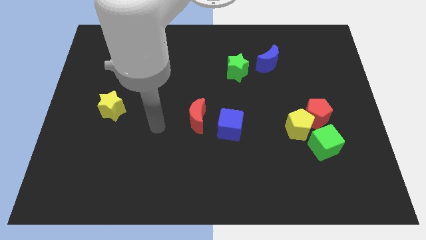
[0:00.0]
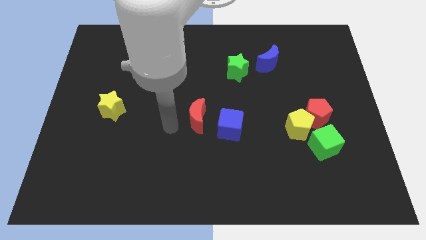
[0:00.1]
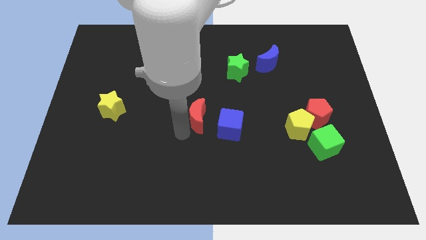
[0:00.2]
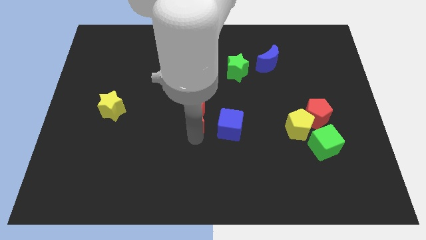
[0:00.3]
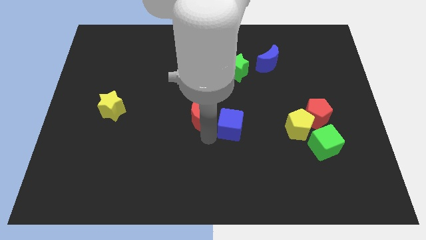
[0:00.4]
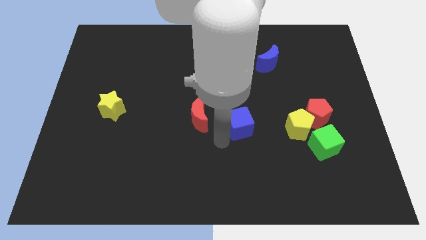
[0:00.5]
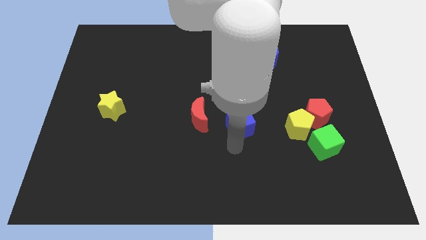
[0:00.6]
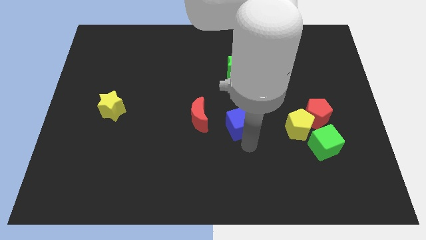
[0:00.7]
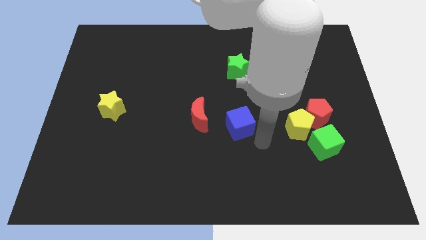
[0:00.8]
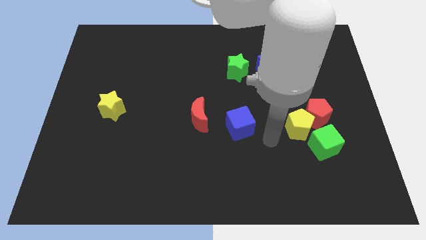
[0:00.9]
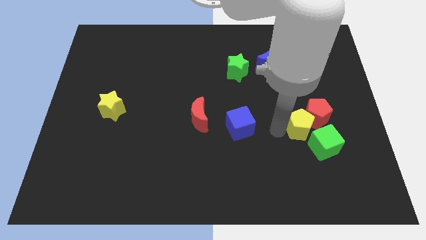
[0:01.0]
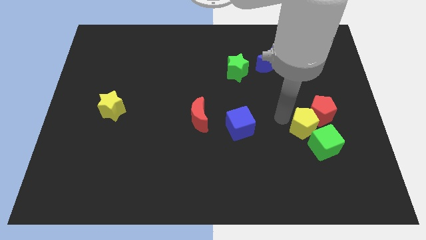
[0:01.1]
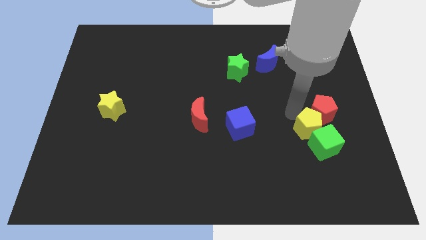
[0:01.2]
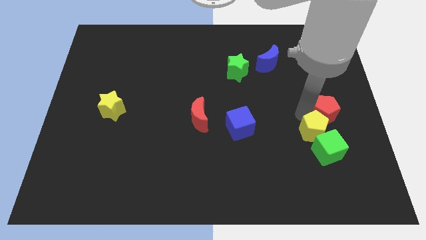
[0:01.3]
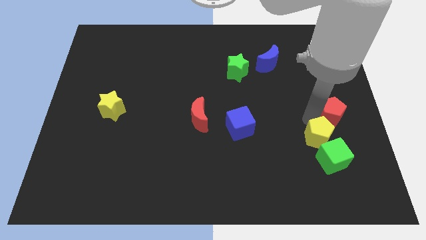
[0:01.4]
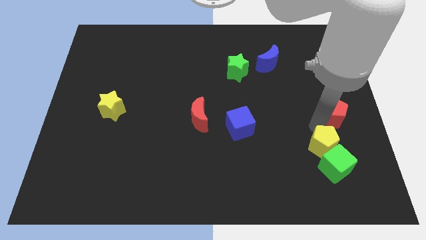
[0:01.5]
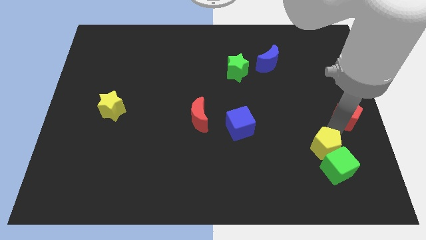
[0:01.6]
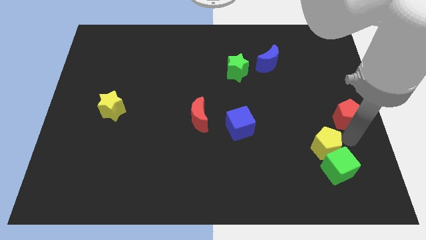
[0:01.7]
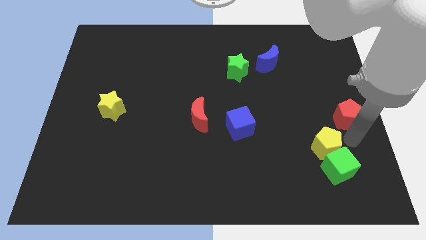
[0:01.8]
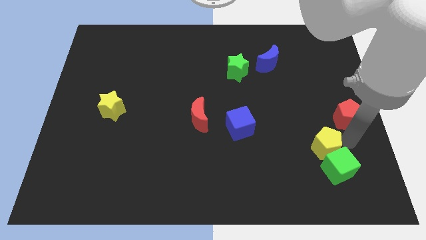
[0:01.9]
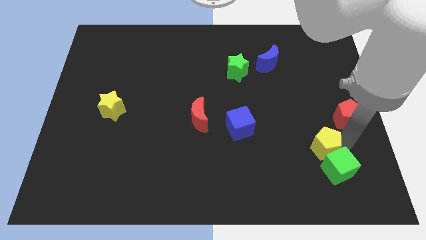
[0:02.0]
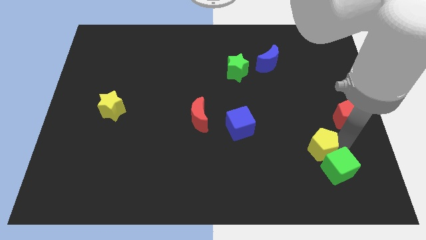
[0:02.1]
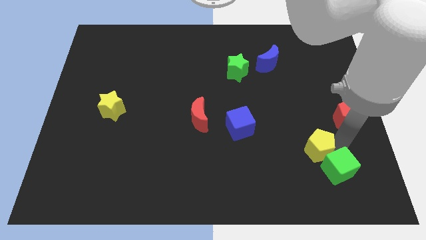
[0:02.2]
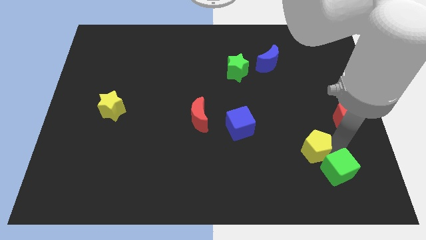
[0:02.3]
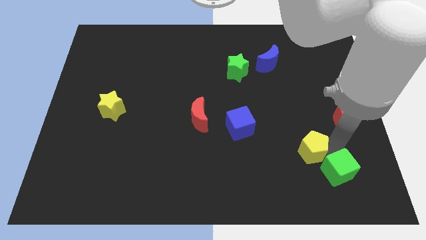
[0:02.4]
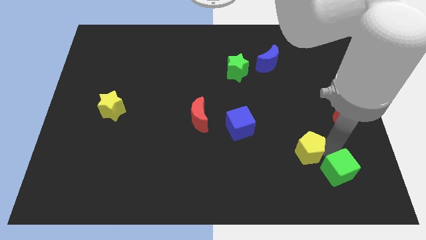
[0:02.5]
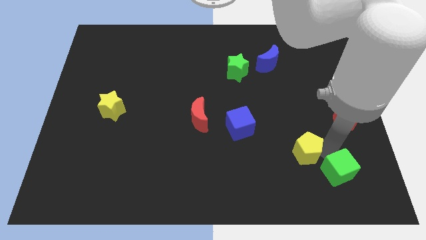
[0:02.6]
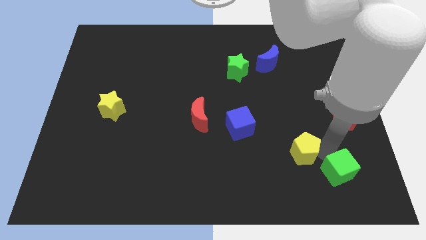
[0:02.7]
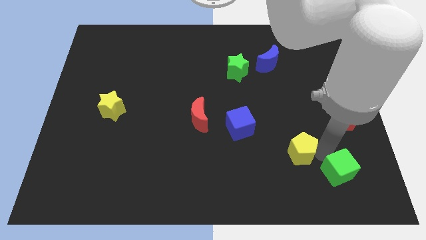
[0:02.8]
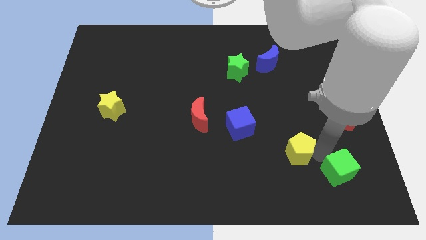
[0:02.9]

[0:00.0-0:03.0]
separate the yellow pentagon from the red pentagon and green cube

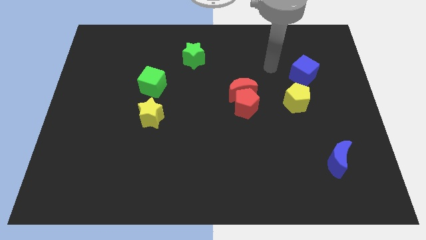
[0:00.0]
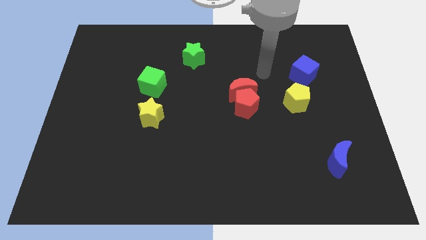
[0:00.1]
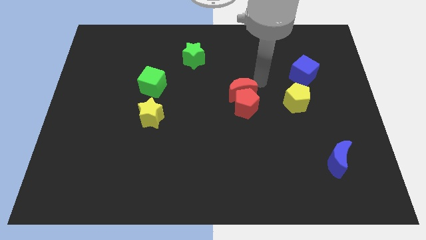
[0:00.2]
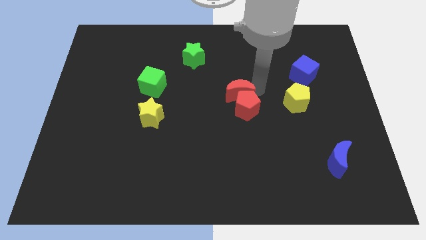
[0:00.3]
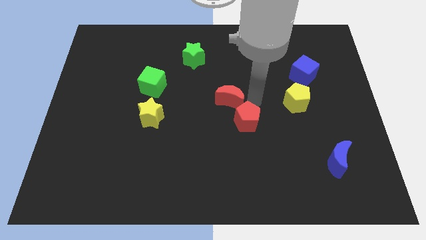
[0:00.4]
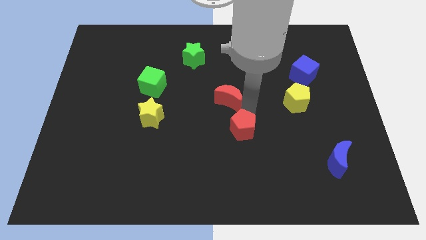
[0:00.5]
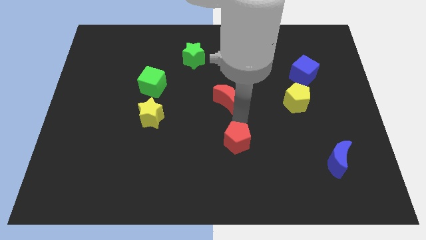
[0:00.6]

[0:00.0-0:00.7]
separate the red moon from the red pentagon

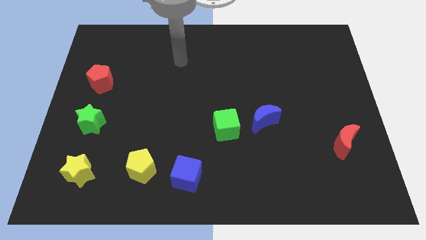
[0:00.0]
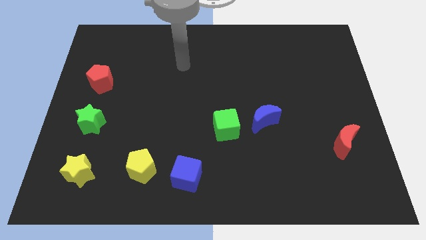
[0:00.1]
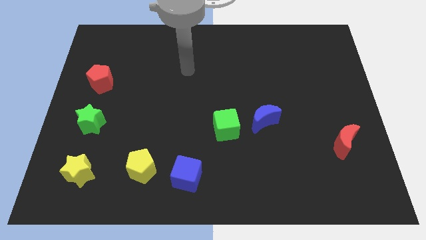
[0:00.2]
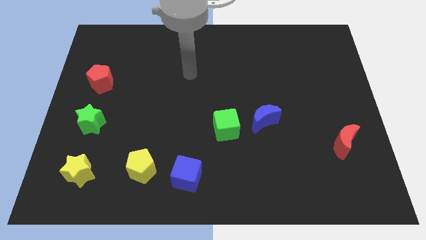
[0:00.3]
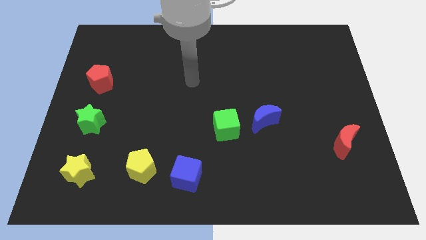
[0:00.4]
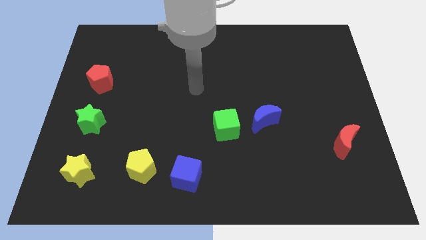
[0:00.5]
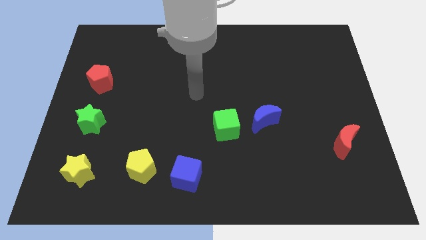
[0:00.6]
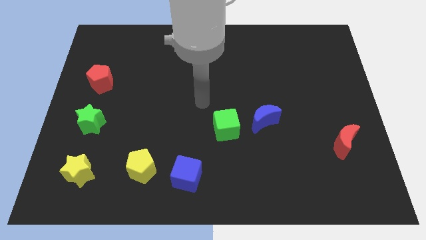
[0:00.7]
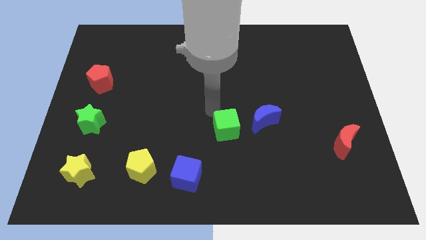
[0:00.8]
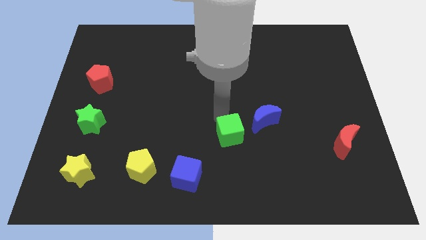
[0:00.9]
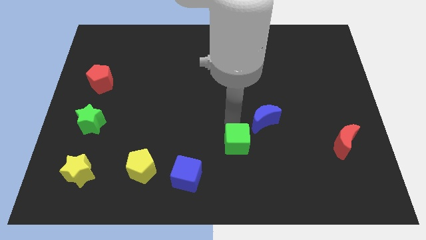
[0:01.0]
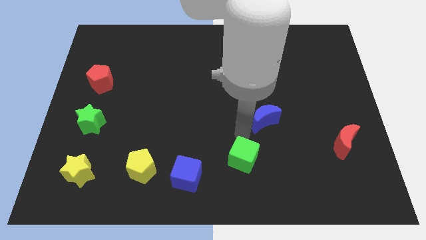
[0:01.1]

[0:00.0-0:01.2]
separate the blue moon from the green cube

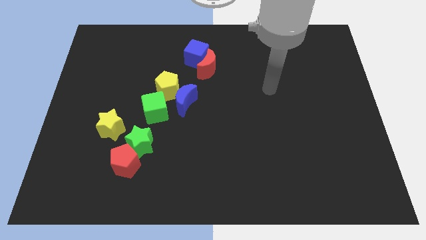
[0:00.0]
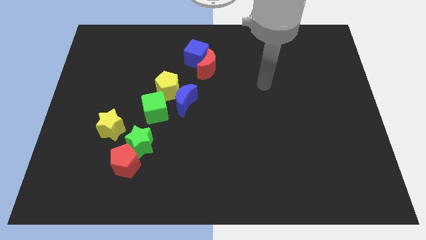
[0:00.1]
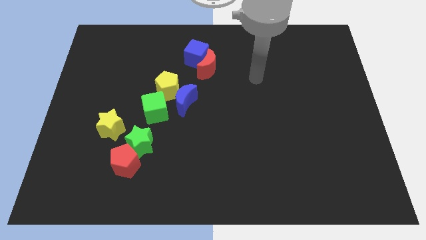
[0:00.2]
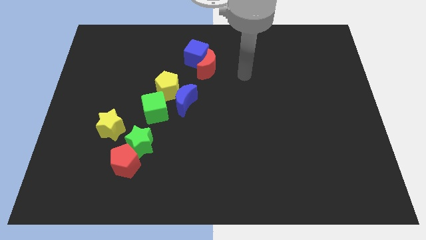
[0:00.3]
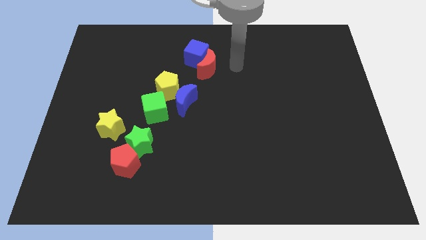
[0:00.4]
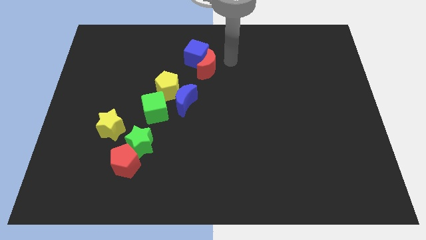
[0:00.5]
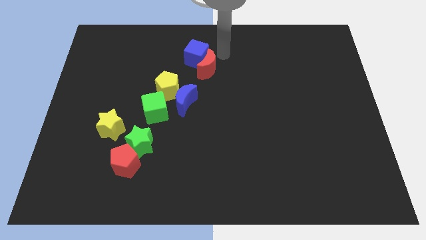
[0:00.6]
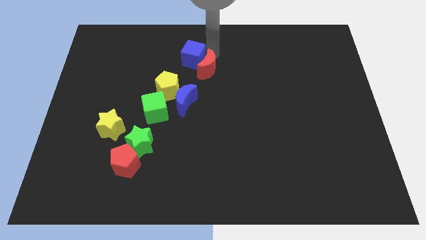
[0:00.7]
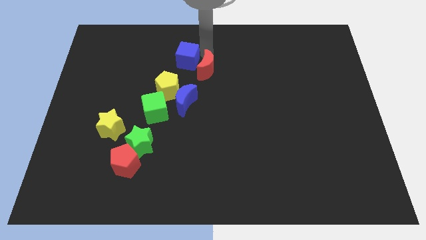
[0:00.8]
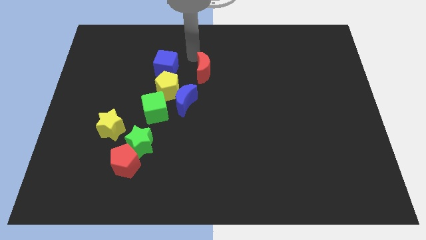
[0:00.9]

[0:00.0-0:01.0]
separate the red moon from the blue cube

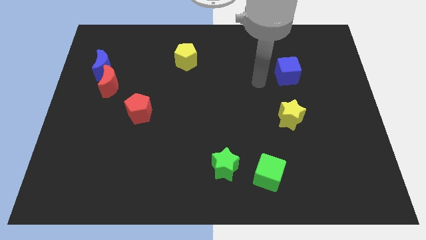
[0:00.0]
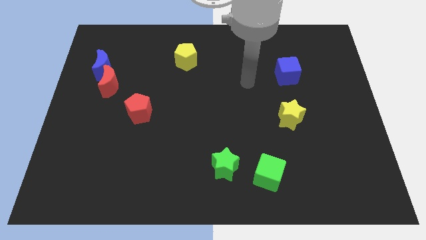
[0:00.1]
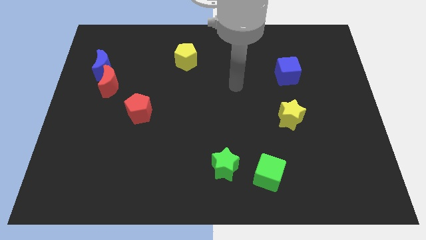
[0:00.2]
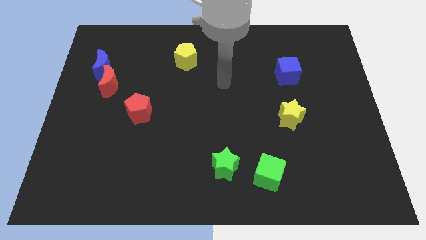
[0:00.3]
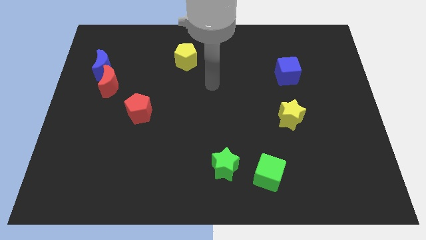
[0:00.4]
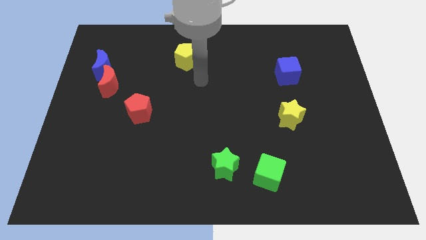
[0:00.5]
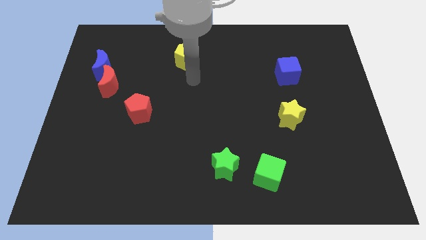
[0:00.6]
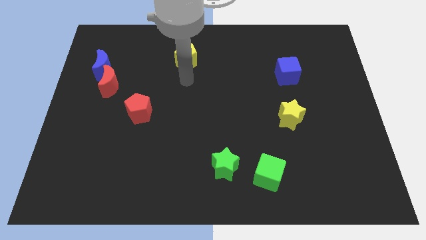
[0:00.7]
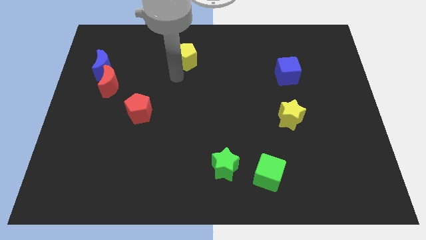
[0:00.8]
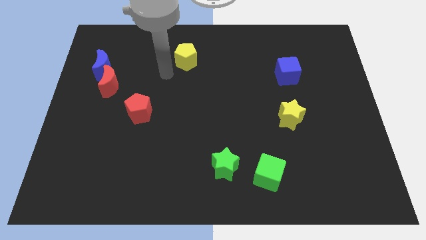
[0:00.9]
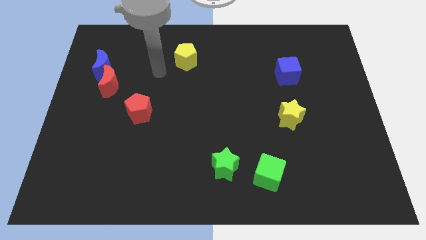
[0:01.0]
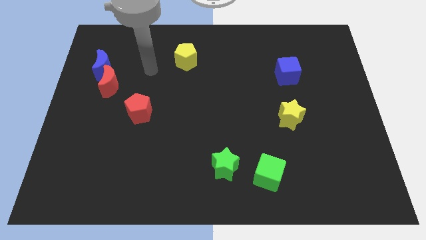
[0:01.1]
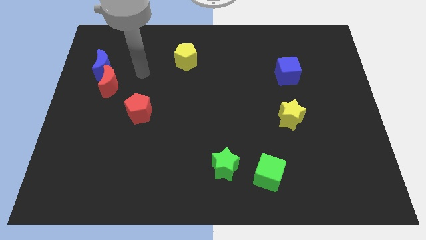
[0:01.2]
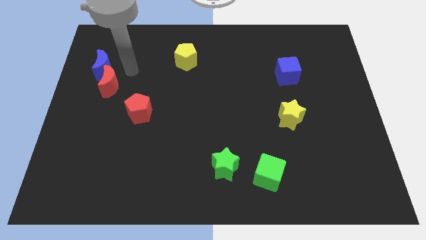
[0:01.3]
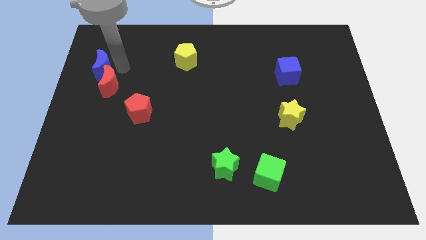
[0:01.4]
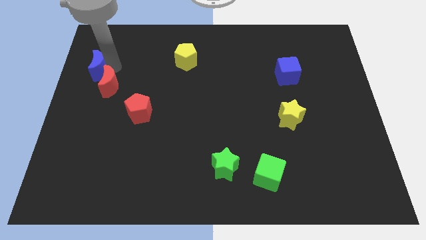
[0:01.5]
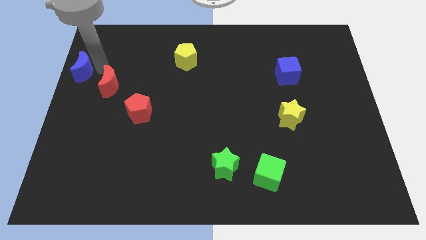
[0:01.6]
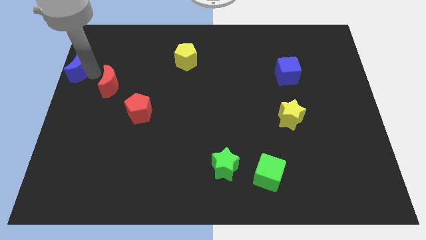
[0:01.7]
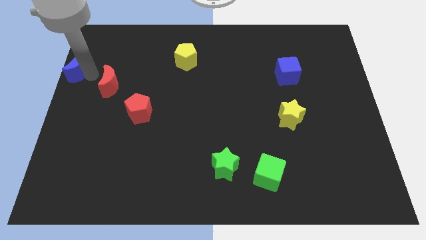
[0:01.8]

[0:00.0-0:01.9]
separate the red moon from the blue moon

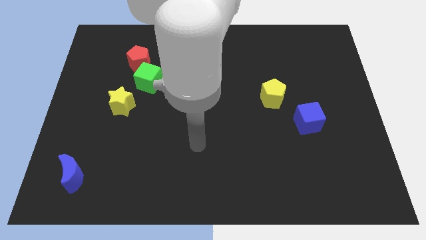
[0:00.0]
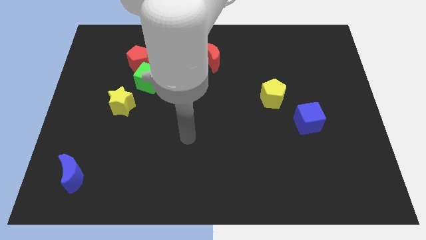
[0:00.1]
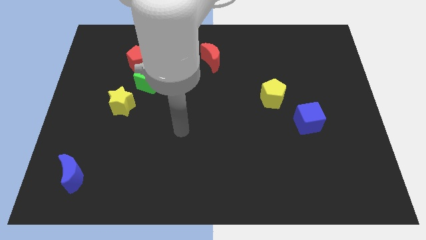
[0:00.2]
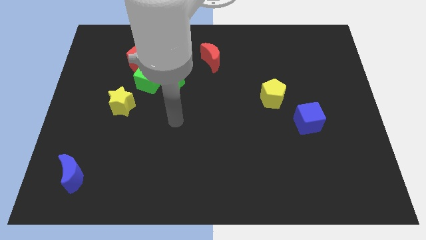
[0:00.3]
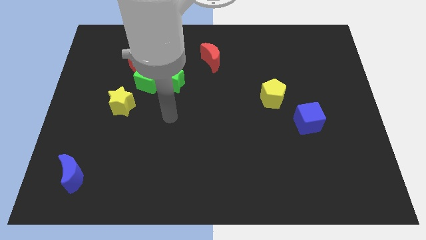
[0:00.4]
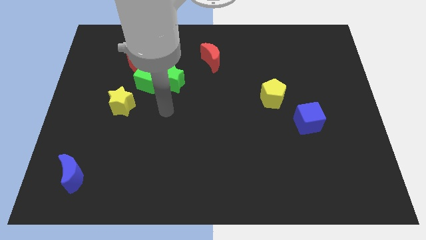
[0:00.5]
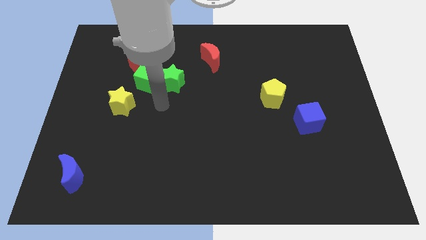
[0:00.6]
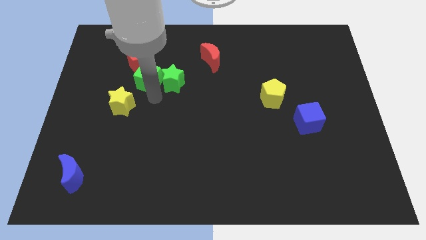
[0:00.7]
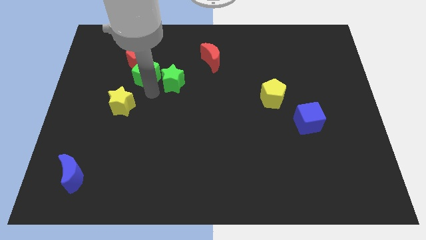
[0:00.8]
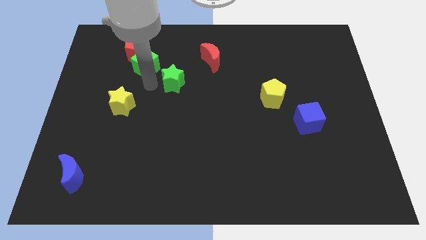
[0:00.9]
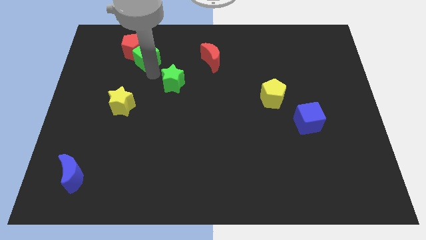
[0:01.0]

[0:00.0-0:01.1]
separate the green star from the green cube

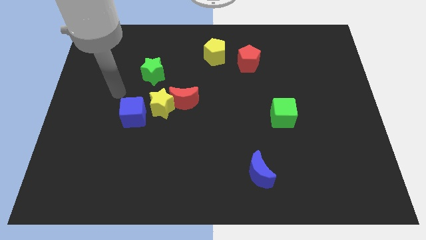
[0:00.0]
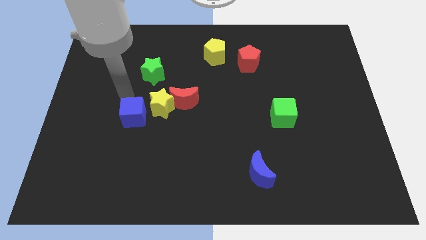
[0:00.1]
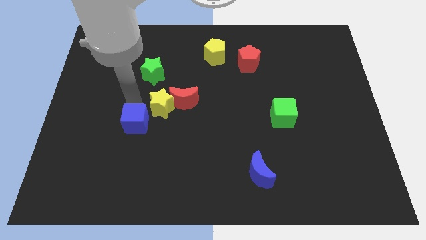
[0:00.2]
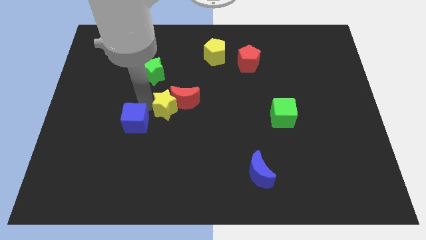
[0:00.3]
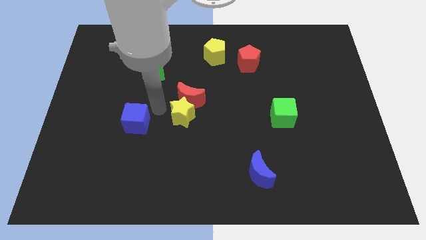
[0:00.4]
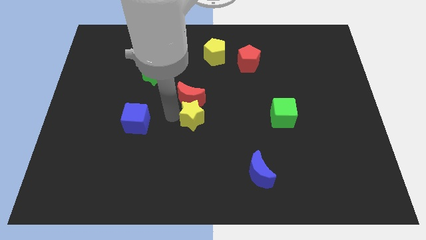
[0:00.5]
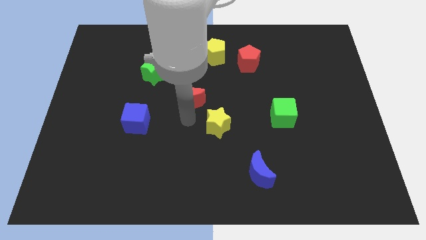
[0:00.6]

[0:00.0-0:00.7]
separate the red moon from the yellow star
